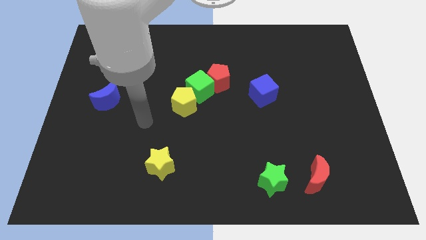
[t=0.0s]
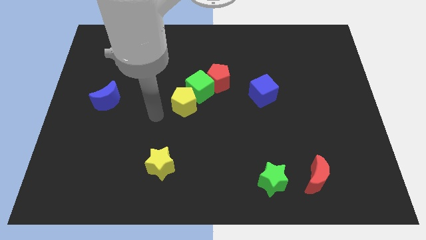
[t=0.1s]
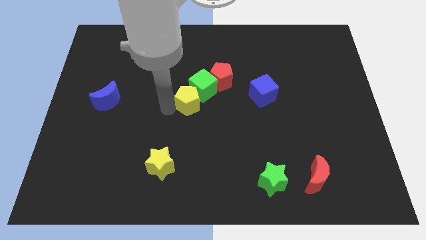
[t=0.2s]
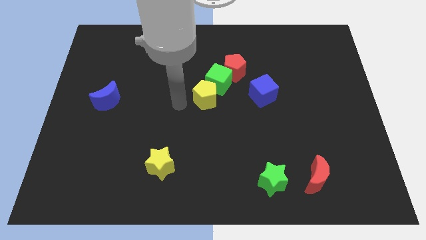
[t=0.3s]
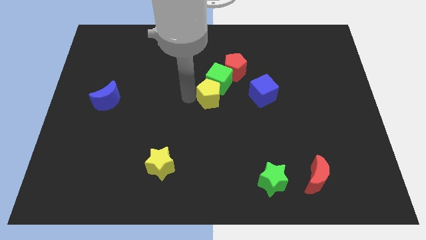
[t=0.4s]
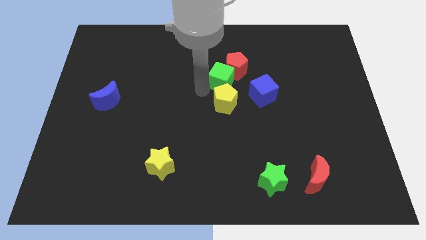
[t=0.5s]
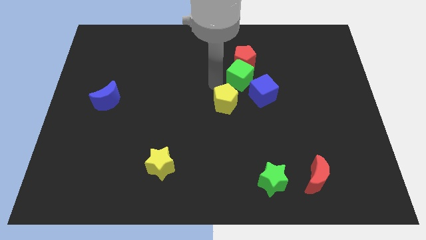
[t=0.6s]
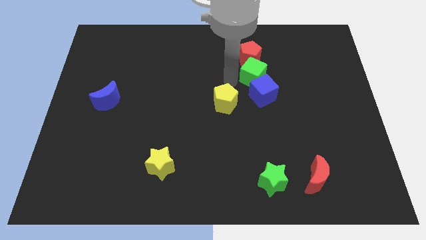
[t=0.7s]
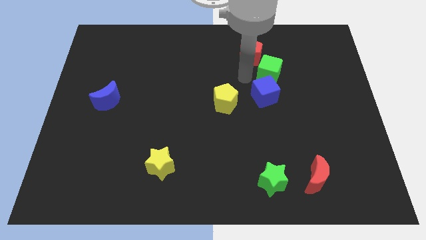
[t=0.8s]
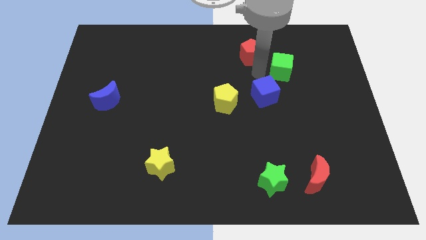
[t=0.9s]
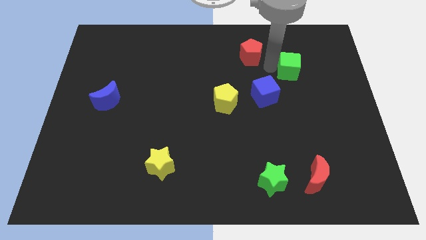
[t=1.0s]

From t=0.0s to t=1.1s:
pull the red pentagon apart from the green cube

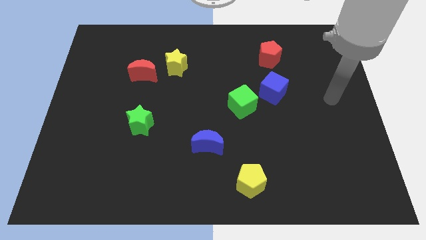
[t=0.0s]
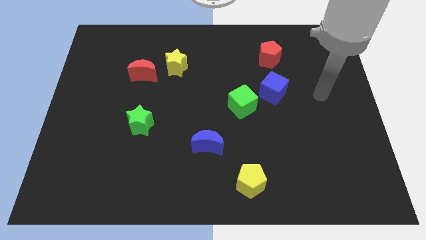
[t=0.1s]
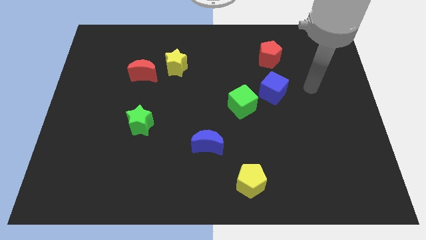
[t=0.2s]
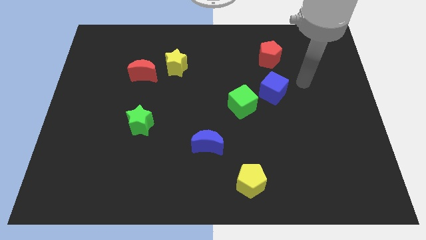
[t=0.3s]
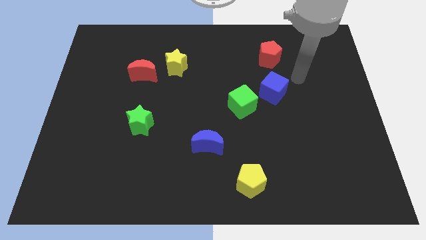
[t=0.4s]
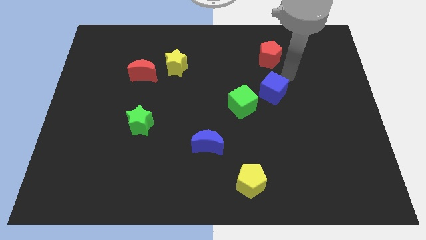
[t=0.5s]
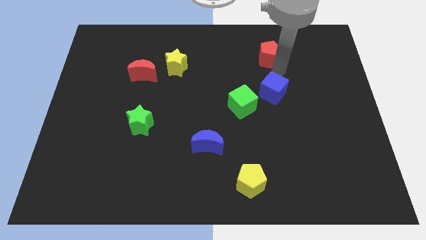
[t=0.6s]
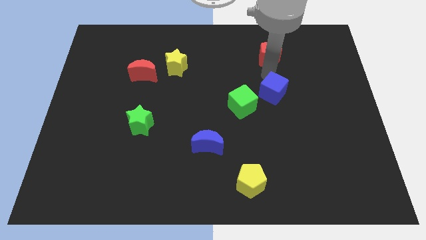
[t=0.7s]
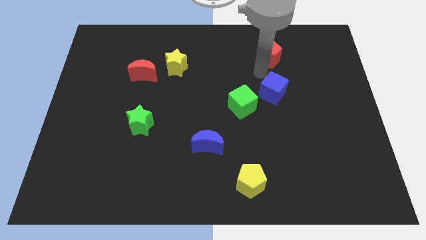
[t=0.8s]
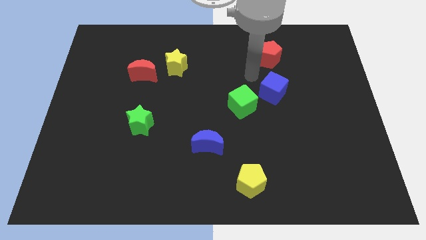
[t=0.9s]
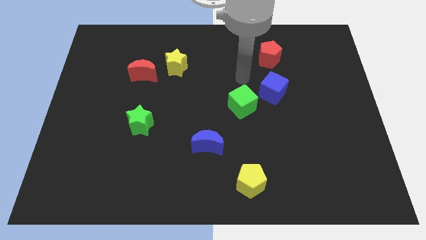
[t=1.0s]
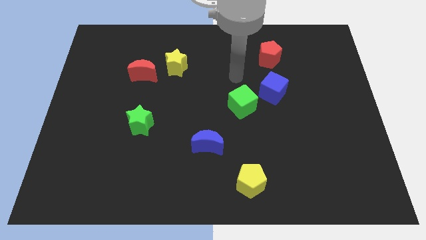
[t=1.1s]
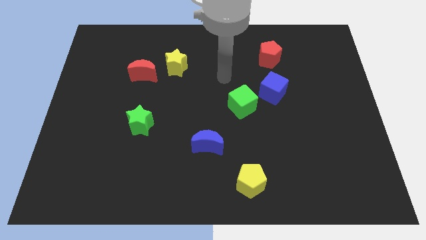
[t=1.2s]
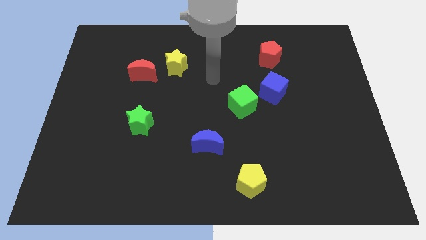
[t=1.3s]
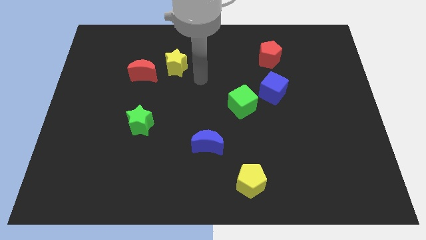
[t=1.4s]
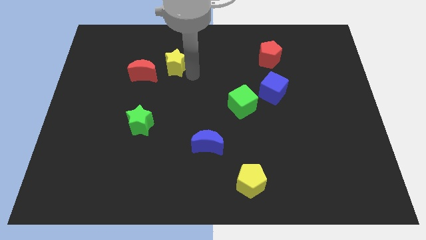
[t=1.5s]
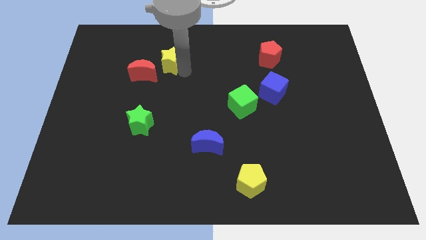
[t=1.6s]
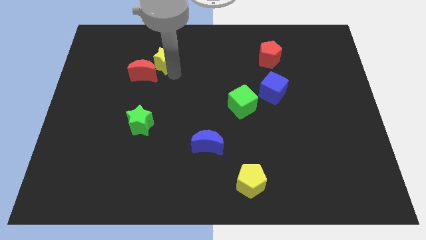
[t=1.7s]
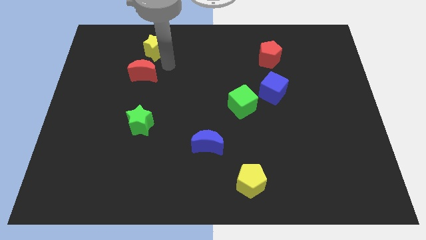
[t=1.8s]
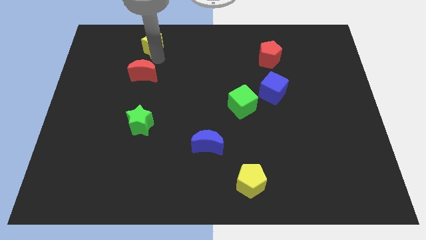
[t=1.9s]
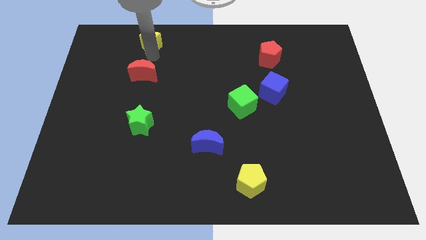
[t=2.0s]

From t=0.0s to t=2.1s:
pull the red moon apart from the yellow star

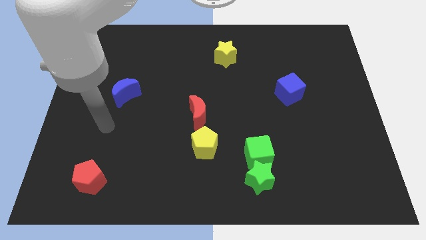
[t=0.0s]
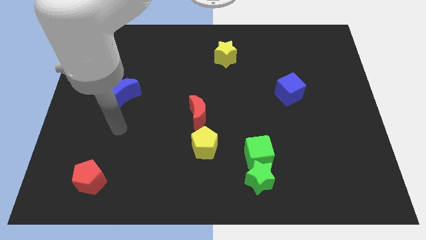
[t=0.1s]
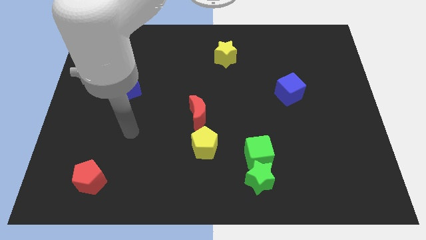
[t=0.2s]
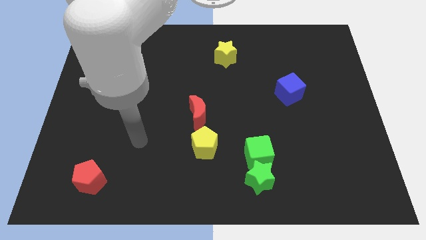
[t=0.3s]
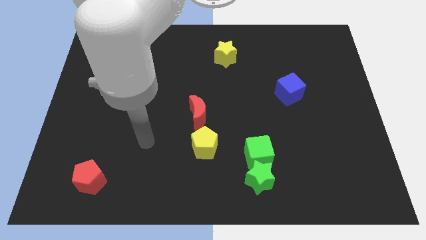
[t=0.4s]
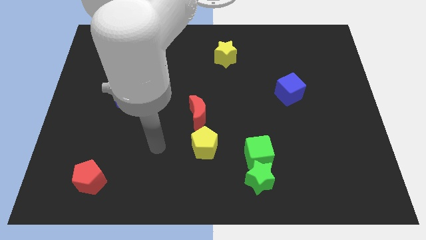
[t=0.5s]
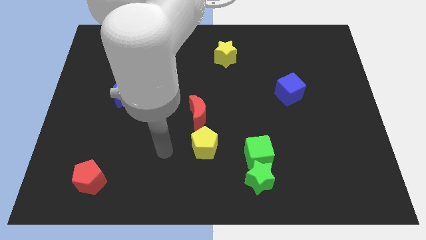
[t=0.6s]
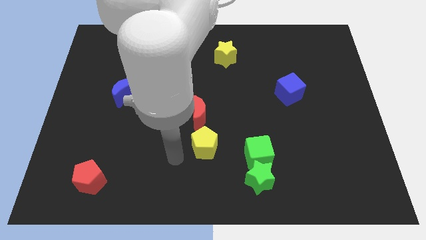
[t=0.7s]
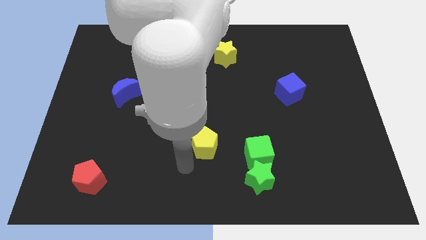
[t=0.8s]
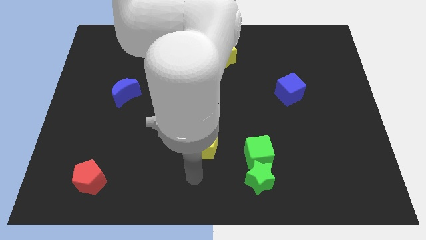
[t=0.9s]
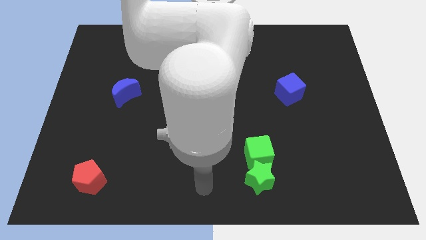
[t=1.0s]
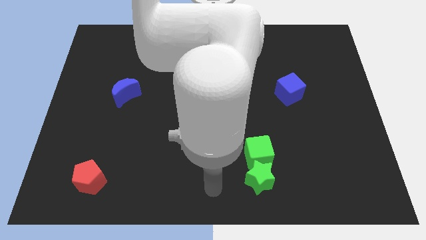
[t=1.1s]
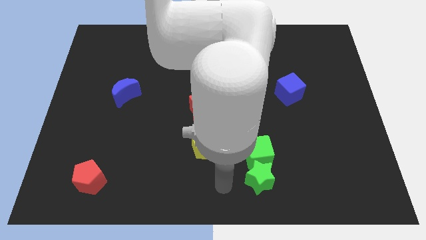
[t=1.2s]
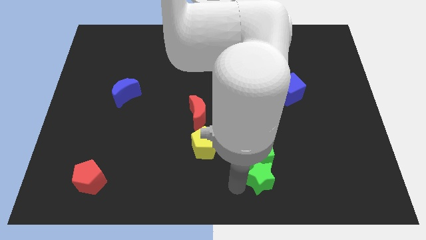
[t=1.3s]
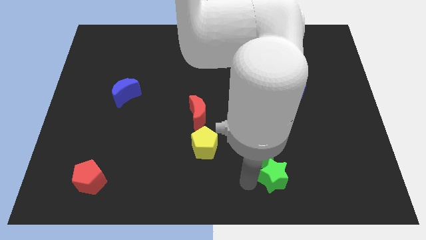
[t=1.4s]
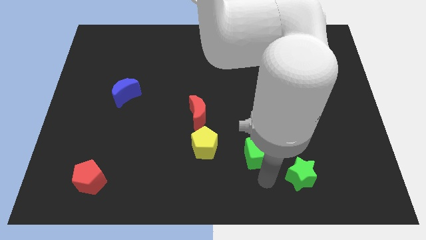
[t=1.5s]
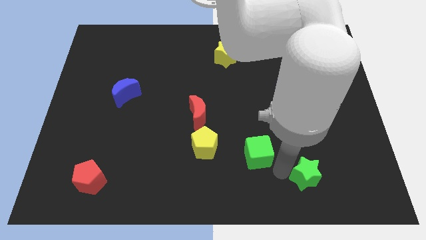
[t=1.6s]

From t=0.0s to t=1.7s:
separate the green cube from the green star

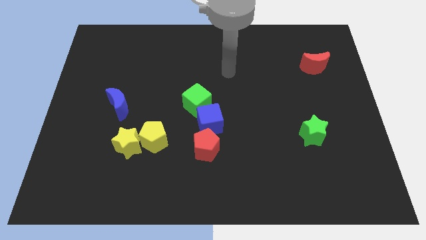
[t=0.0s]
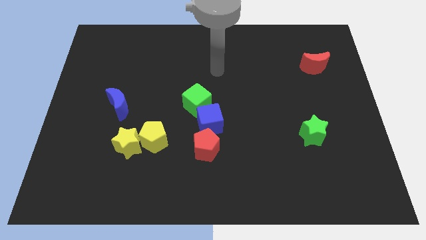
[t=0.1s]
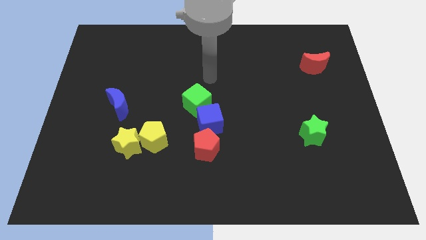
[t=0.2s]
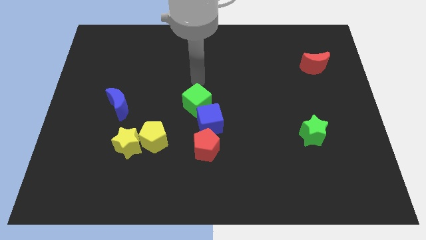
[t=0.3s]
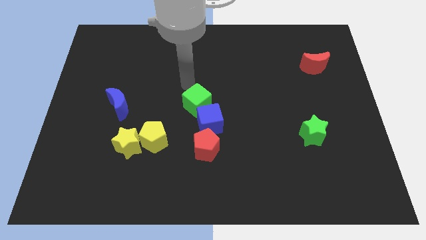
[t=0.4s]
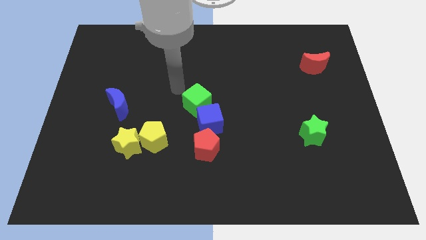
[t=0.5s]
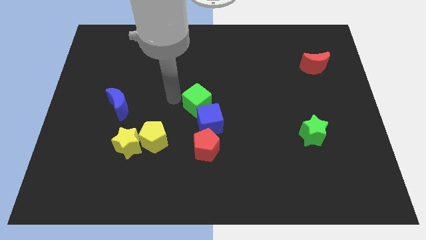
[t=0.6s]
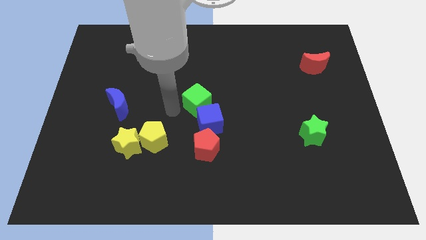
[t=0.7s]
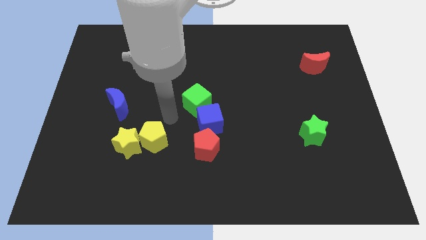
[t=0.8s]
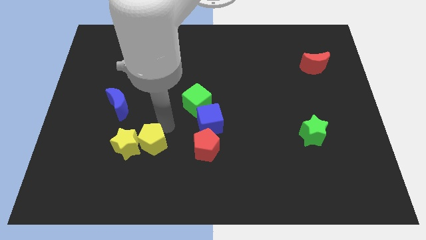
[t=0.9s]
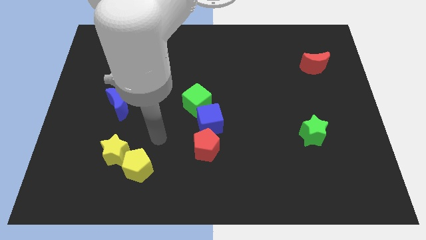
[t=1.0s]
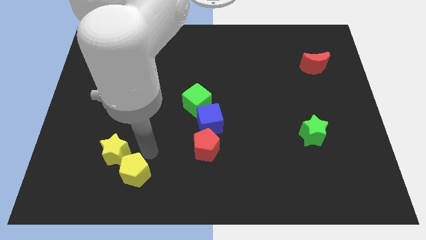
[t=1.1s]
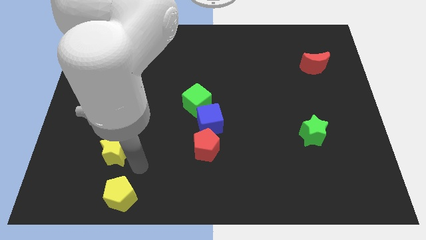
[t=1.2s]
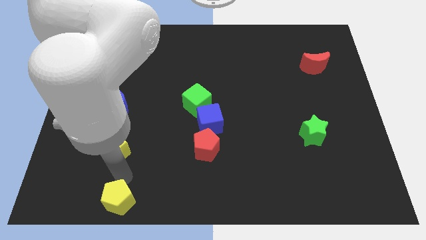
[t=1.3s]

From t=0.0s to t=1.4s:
pull the yellow star apart from the yellow pentagon

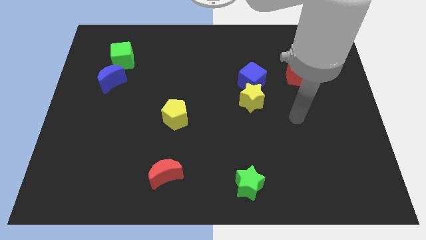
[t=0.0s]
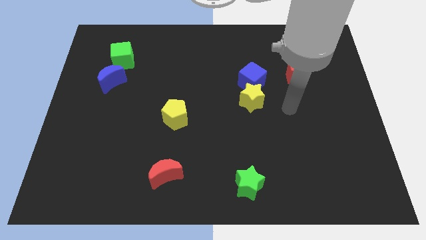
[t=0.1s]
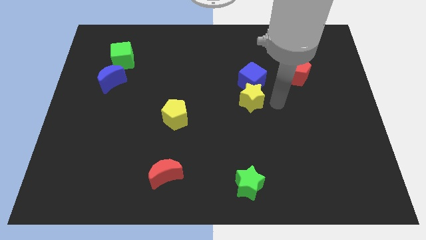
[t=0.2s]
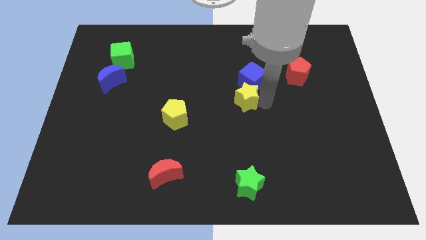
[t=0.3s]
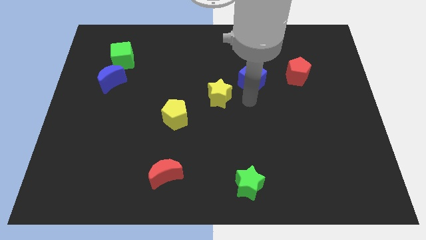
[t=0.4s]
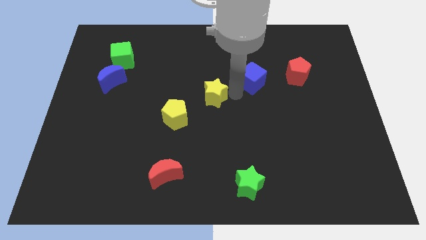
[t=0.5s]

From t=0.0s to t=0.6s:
separate the blue cube from the yellow star

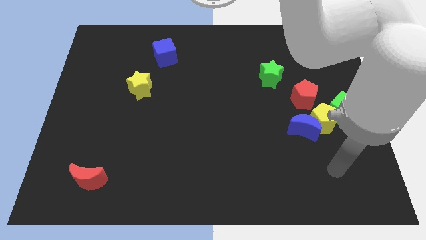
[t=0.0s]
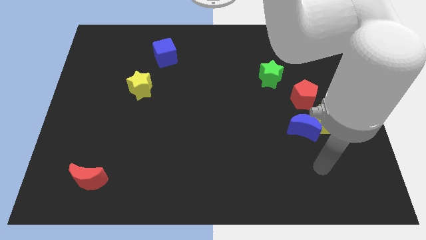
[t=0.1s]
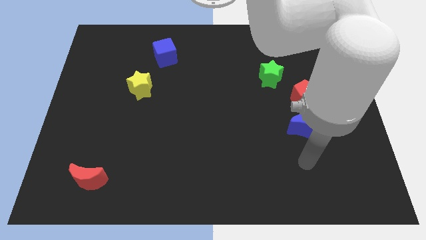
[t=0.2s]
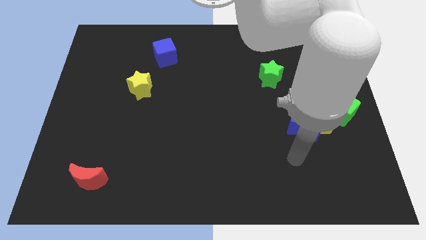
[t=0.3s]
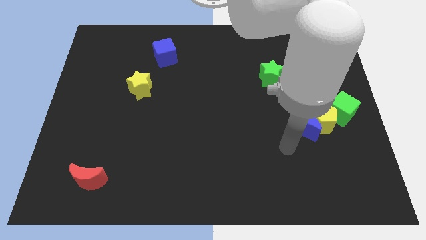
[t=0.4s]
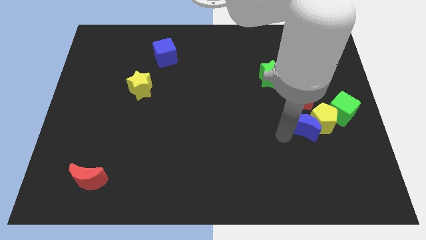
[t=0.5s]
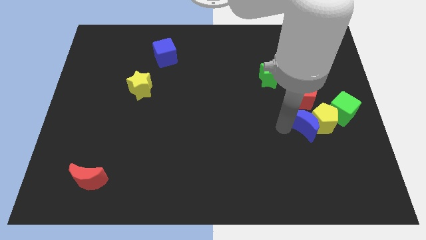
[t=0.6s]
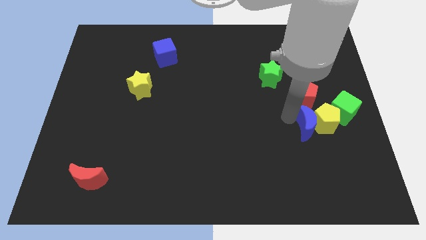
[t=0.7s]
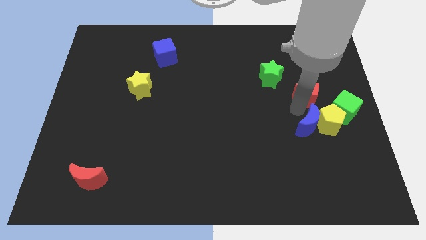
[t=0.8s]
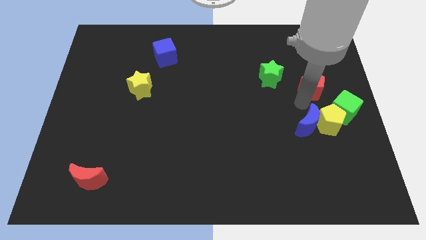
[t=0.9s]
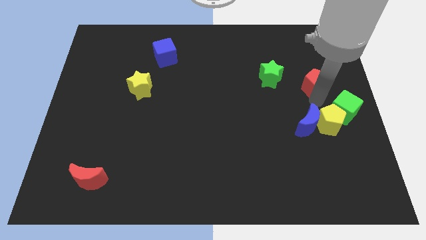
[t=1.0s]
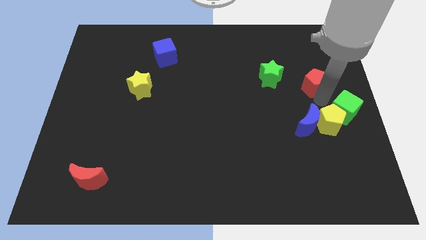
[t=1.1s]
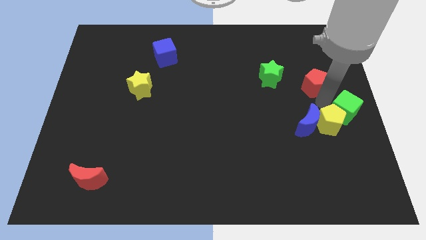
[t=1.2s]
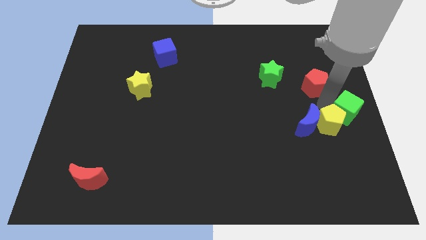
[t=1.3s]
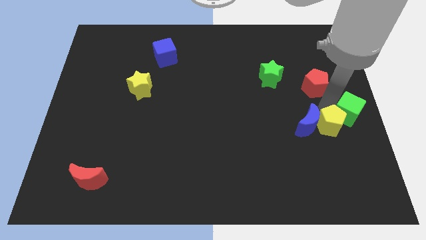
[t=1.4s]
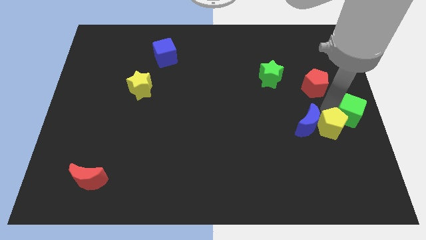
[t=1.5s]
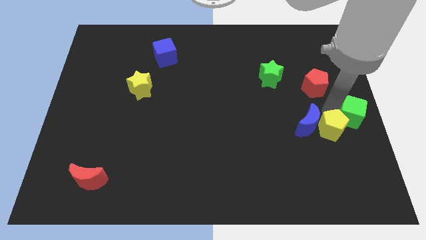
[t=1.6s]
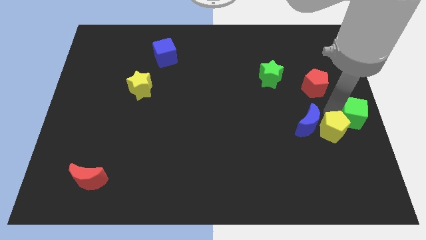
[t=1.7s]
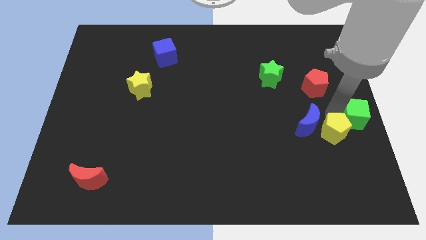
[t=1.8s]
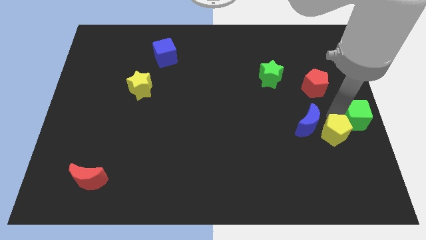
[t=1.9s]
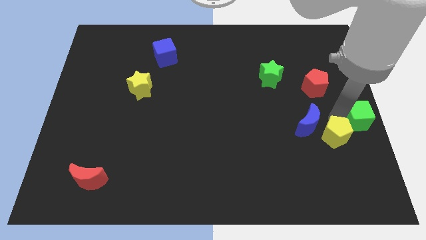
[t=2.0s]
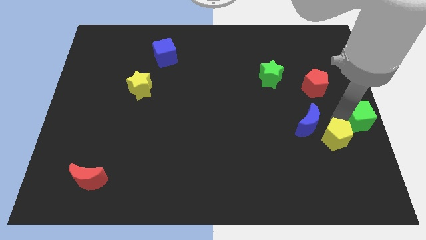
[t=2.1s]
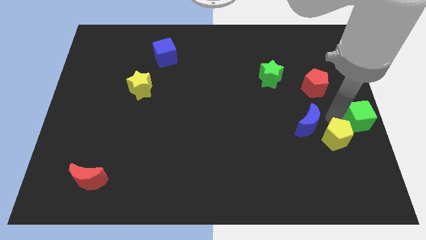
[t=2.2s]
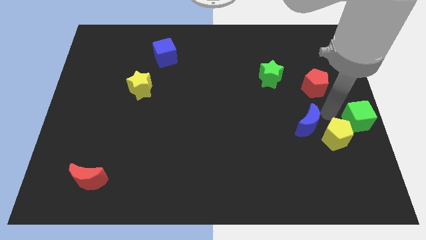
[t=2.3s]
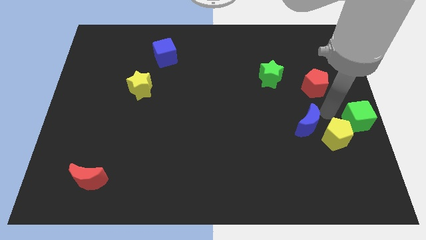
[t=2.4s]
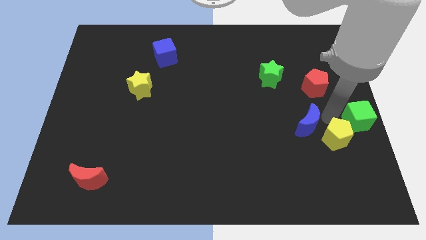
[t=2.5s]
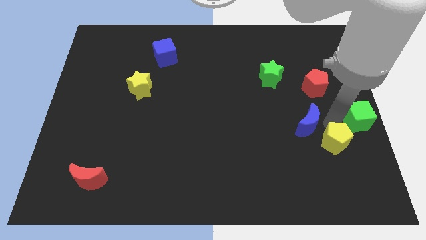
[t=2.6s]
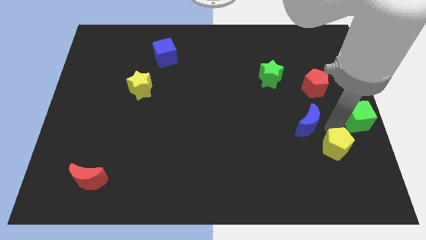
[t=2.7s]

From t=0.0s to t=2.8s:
separate the yellow pentagon from the group
